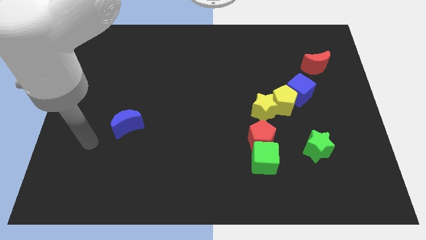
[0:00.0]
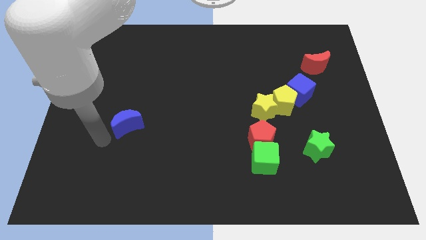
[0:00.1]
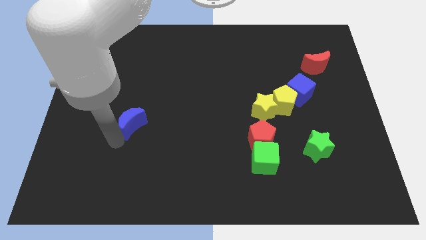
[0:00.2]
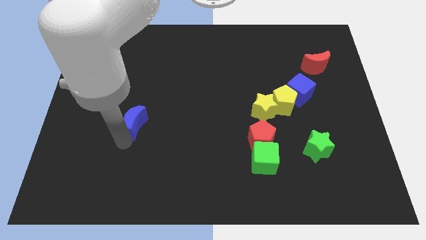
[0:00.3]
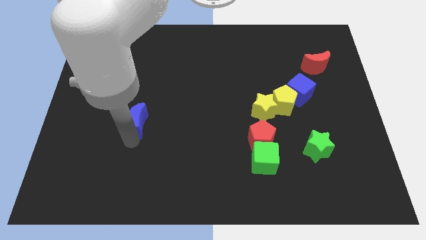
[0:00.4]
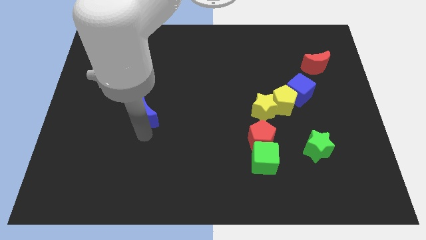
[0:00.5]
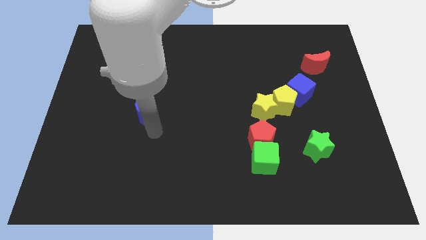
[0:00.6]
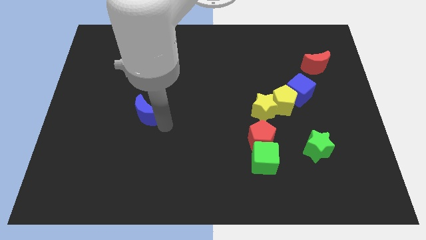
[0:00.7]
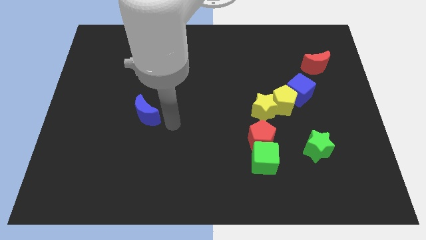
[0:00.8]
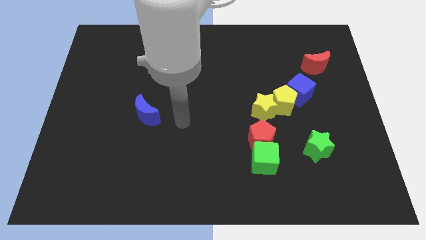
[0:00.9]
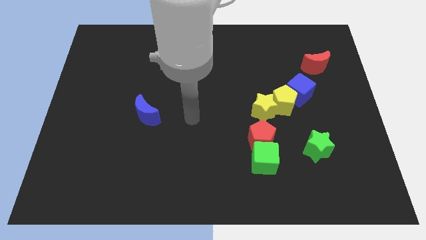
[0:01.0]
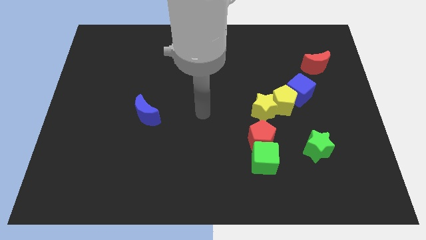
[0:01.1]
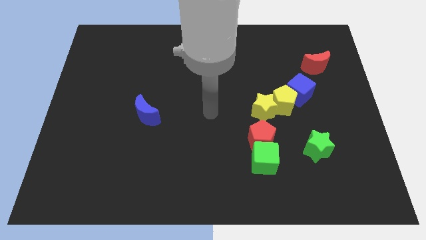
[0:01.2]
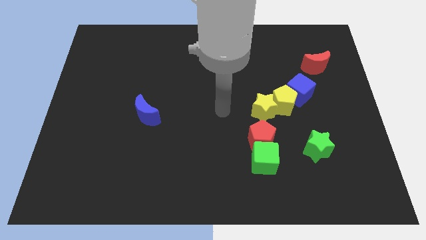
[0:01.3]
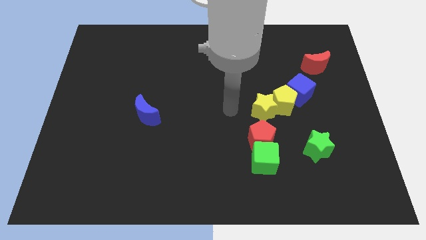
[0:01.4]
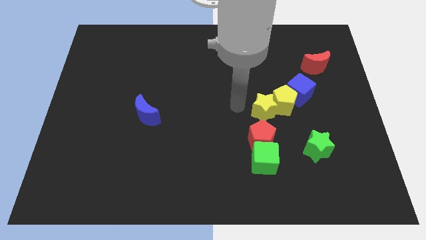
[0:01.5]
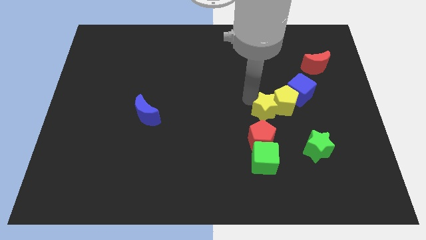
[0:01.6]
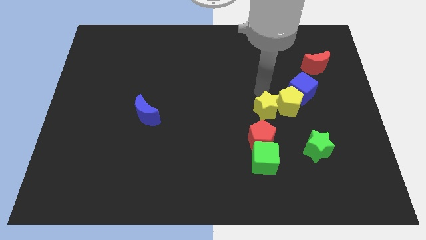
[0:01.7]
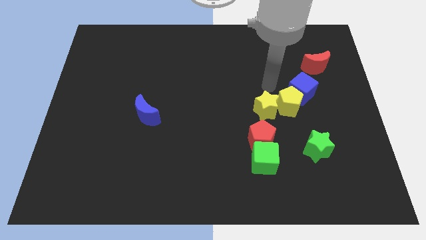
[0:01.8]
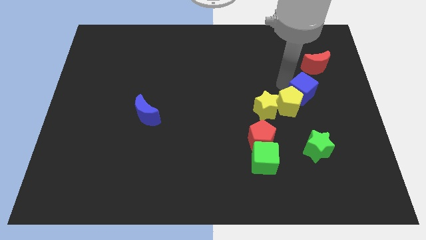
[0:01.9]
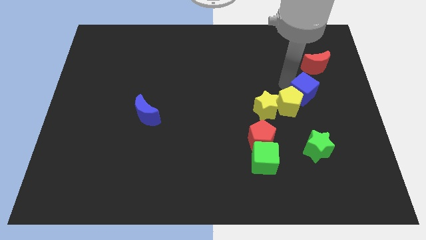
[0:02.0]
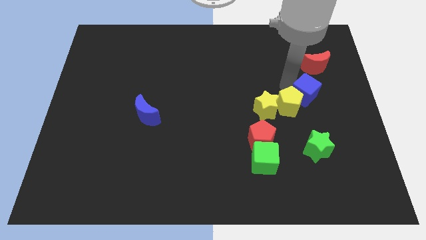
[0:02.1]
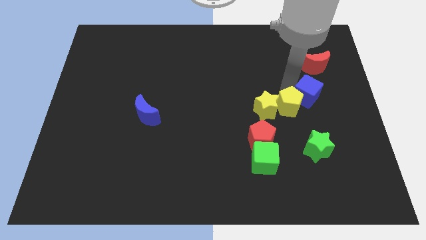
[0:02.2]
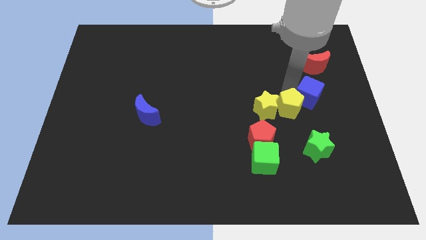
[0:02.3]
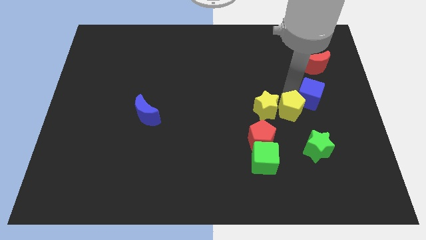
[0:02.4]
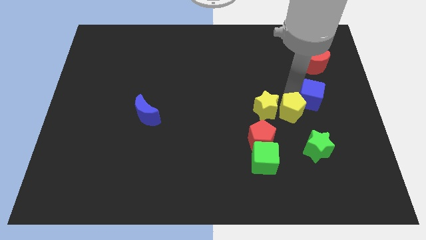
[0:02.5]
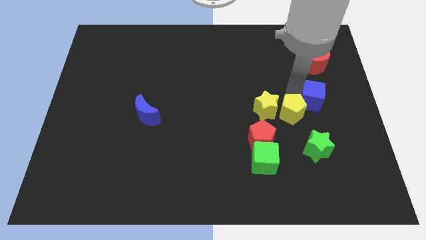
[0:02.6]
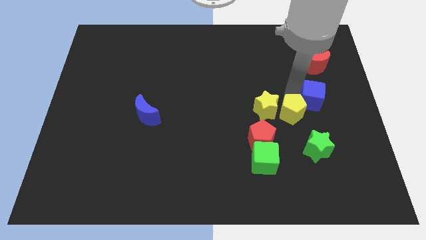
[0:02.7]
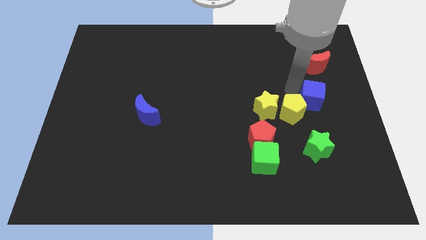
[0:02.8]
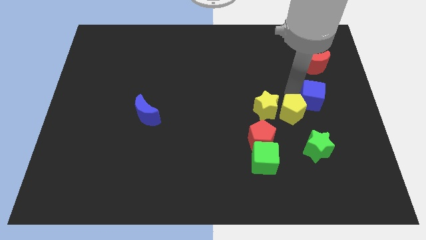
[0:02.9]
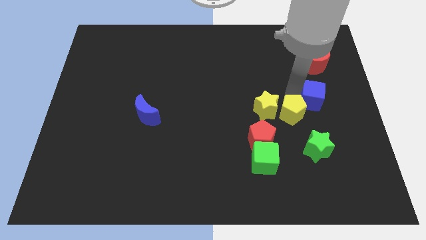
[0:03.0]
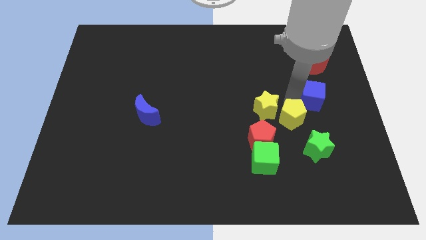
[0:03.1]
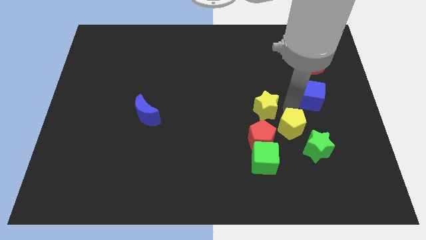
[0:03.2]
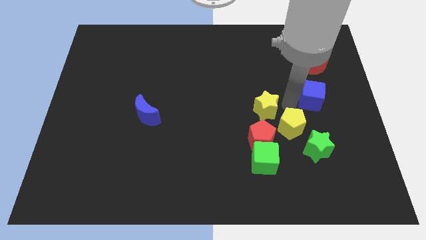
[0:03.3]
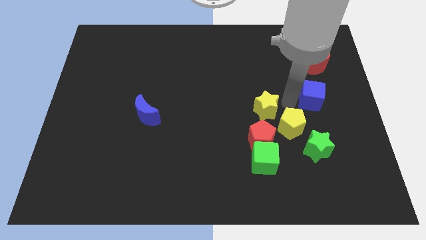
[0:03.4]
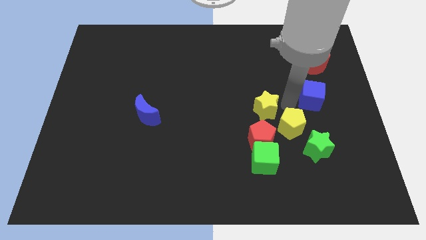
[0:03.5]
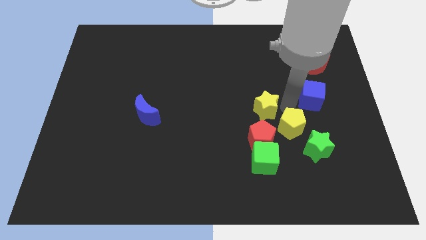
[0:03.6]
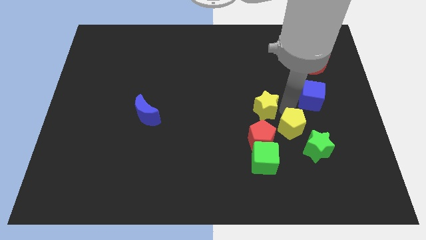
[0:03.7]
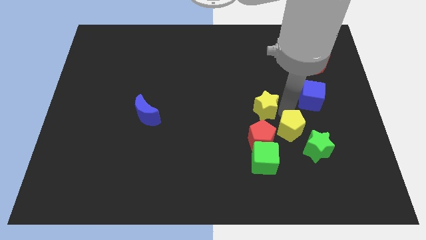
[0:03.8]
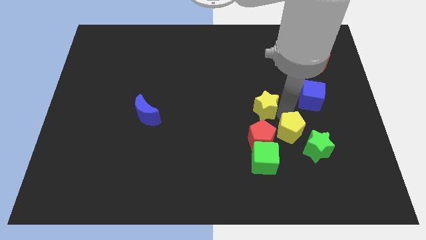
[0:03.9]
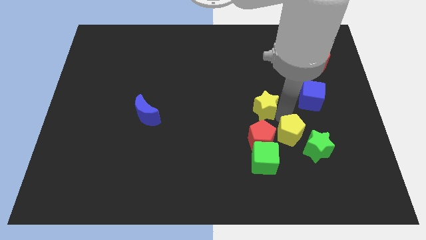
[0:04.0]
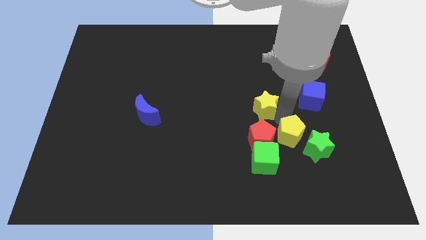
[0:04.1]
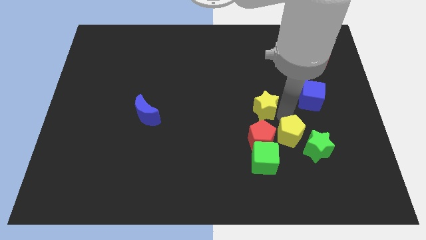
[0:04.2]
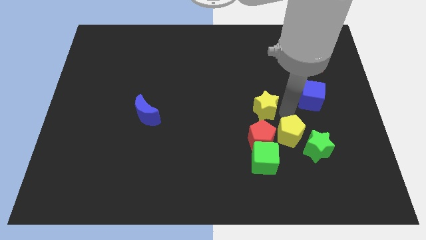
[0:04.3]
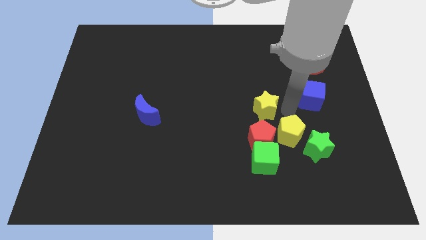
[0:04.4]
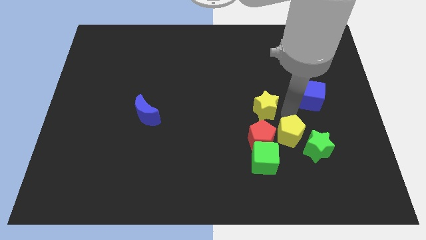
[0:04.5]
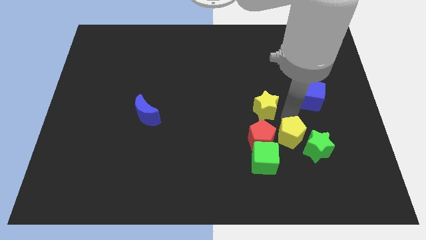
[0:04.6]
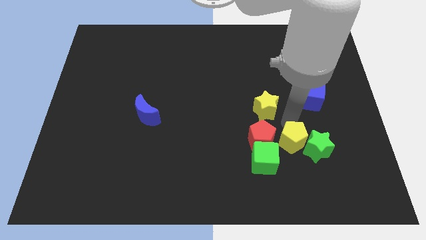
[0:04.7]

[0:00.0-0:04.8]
pull the yellow pentagon apart from the yellow star and blue cube

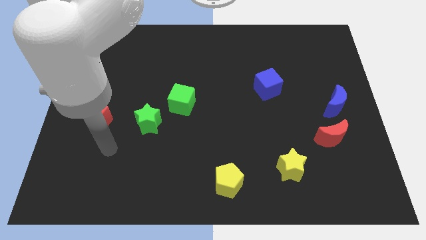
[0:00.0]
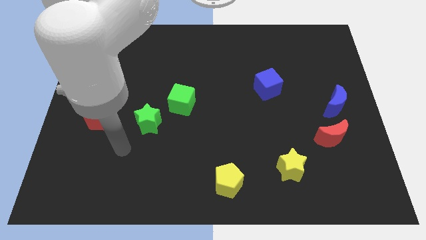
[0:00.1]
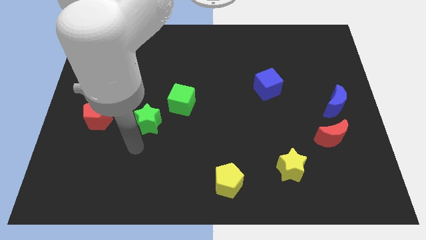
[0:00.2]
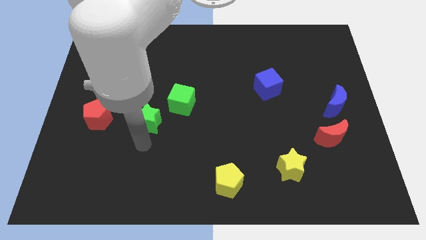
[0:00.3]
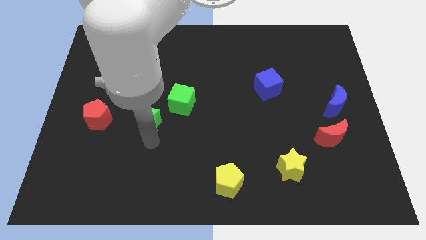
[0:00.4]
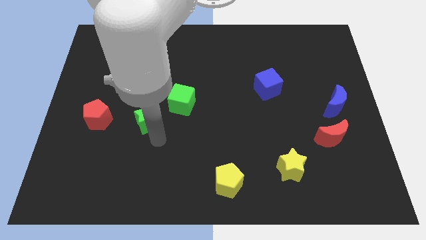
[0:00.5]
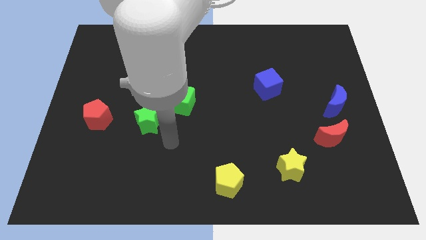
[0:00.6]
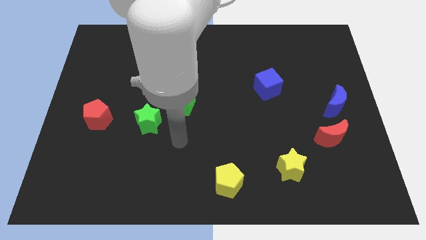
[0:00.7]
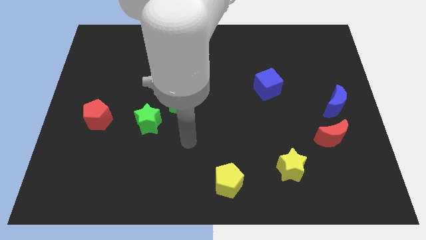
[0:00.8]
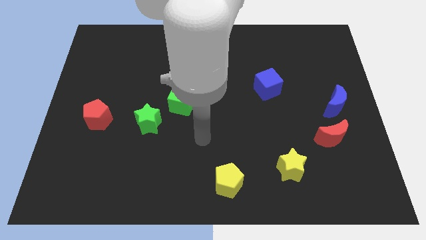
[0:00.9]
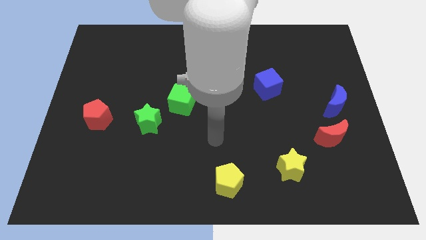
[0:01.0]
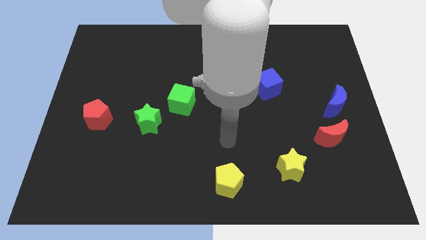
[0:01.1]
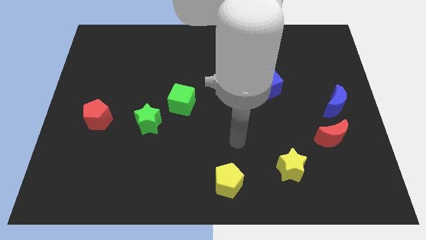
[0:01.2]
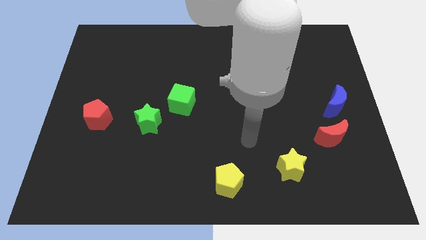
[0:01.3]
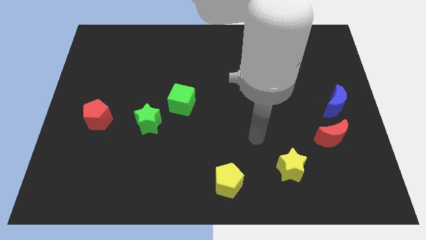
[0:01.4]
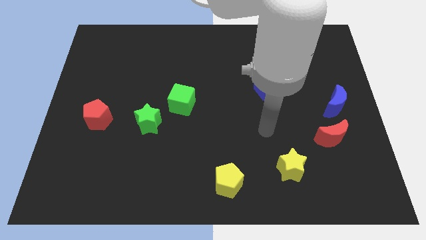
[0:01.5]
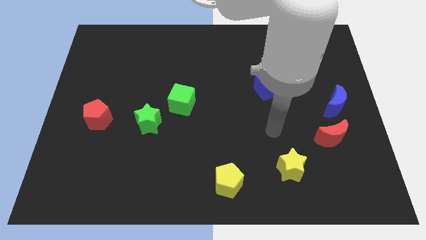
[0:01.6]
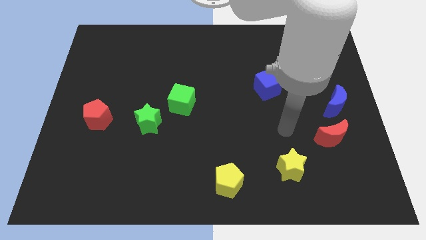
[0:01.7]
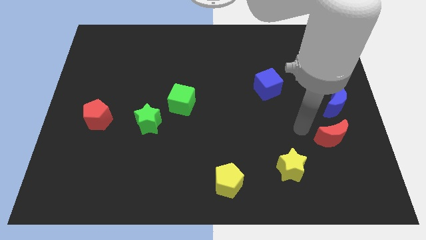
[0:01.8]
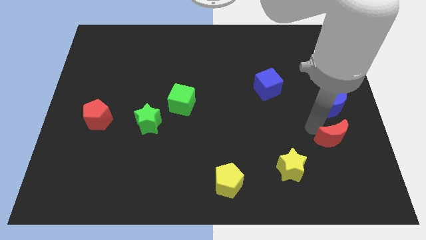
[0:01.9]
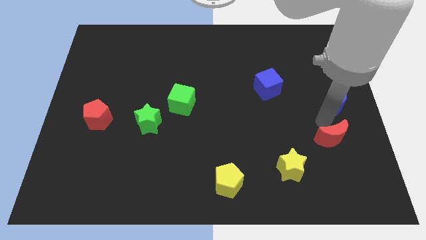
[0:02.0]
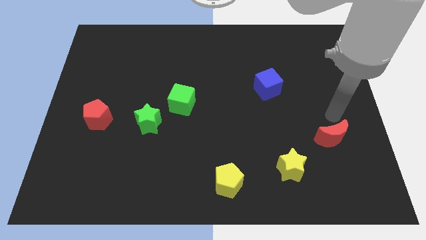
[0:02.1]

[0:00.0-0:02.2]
separate the red moon from the blue moon

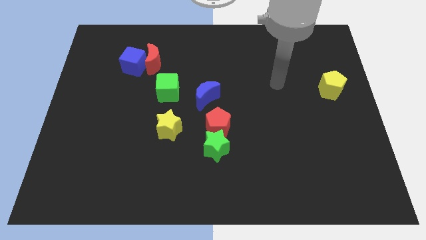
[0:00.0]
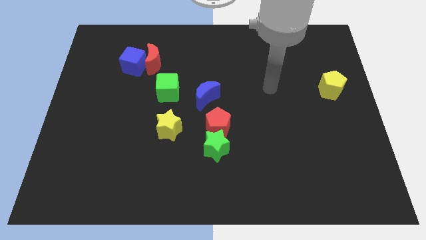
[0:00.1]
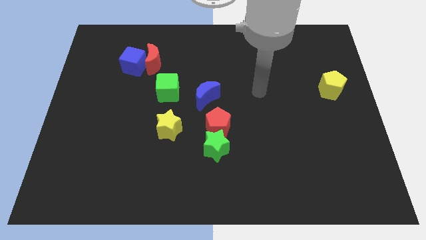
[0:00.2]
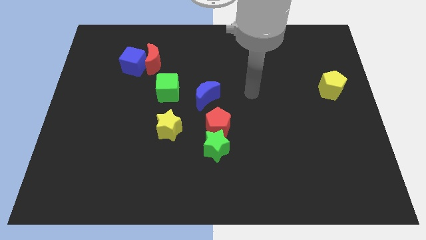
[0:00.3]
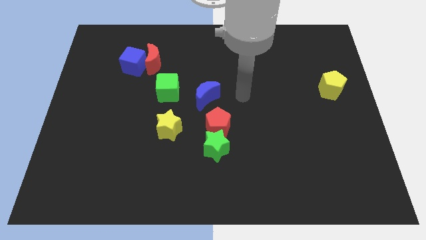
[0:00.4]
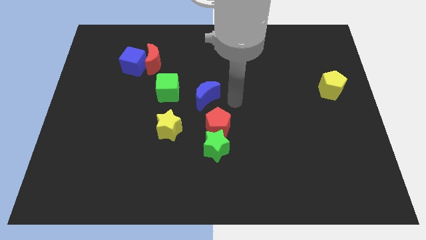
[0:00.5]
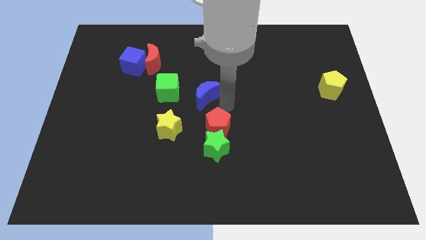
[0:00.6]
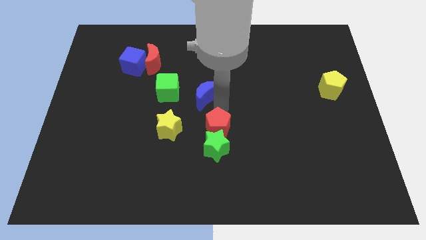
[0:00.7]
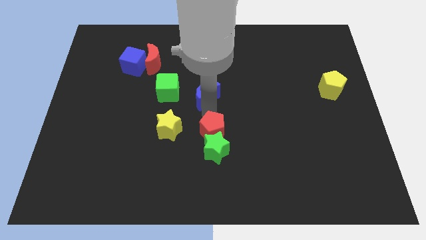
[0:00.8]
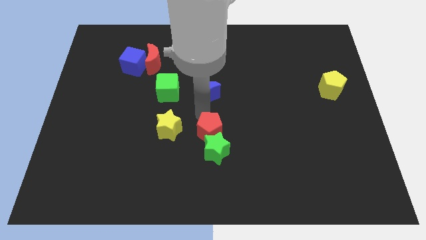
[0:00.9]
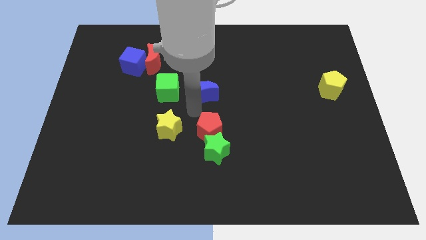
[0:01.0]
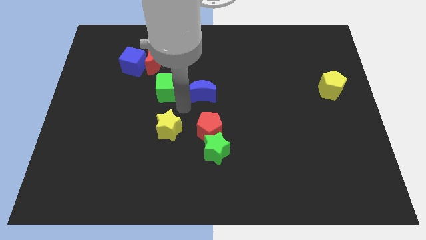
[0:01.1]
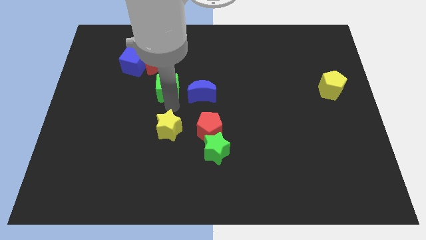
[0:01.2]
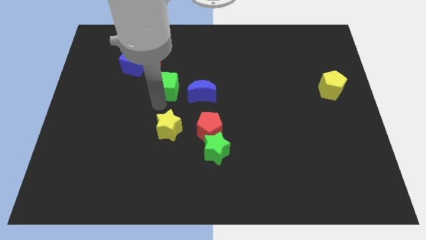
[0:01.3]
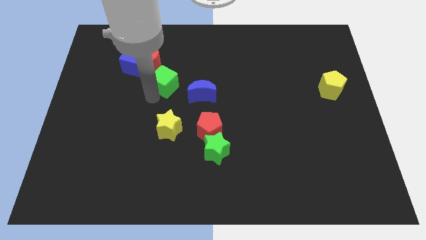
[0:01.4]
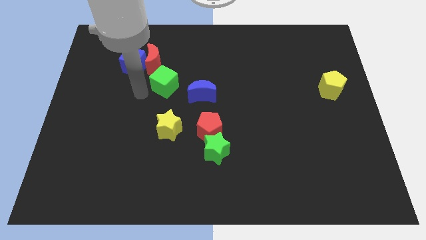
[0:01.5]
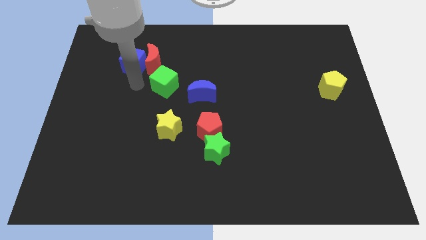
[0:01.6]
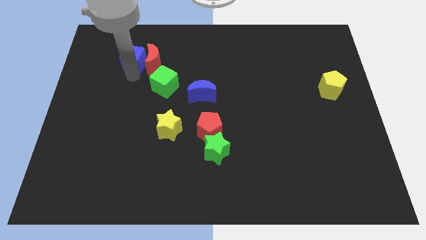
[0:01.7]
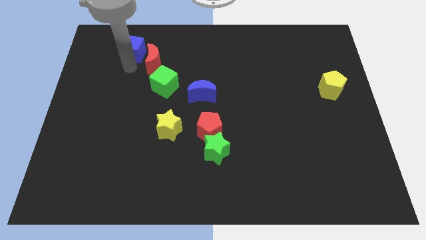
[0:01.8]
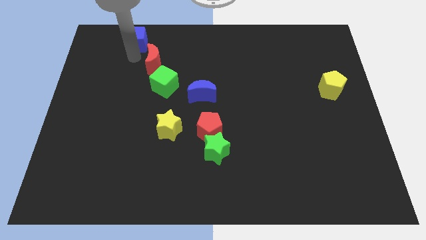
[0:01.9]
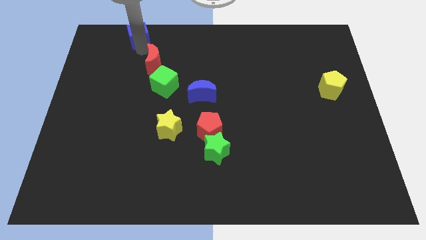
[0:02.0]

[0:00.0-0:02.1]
pull the red moon apart from the blue cube

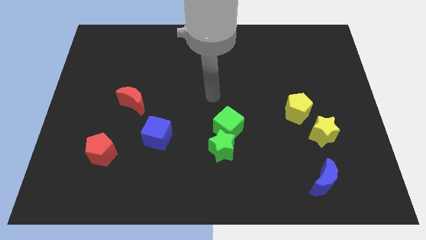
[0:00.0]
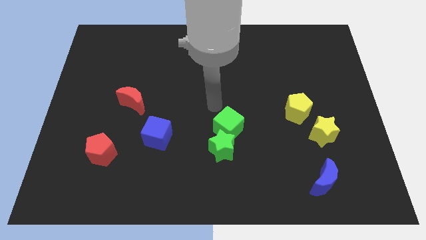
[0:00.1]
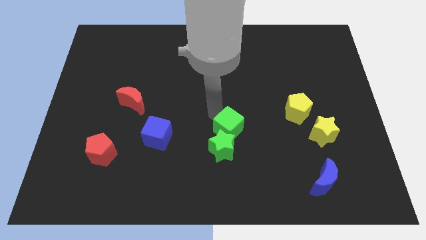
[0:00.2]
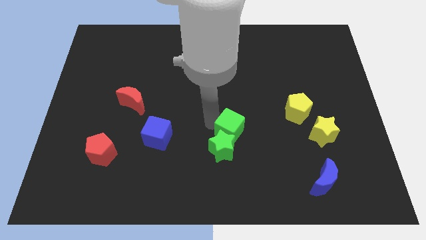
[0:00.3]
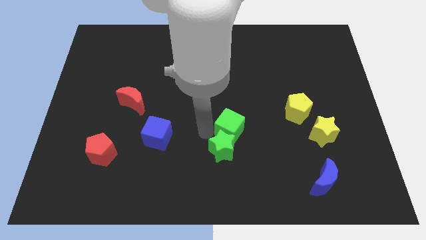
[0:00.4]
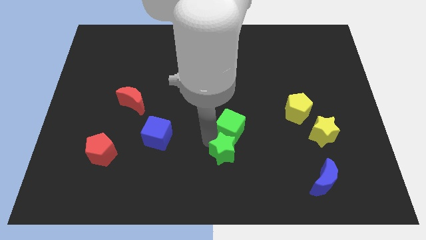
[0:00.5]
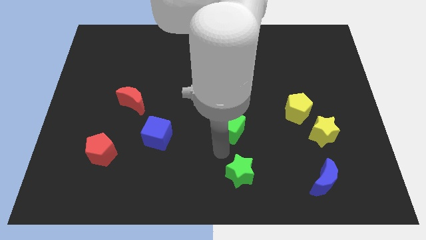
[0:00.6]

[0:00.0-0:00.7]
pull the green cube apart from the green star
